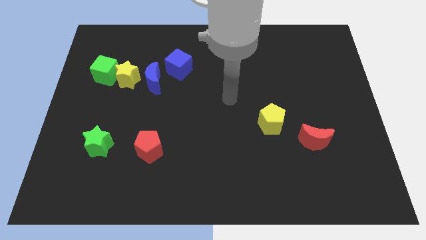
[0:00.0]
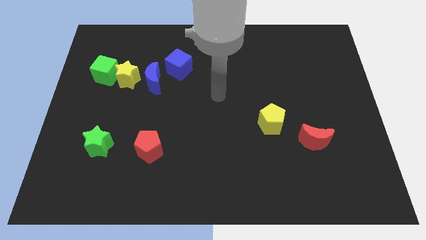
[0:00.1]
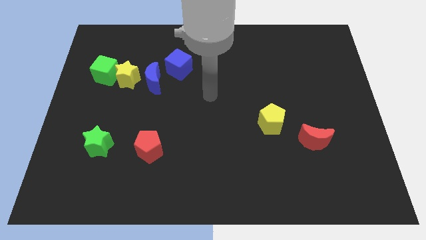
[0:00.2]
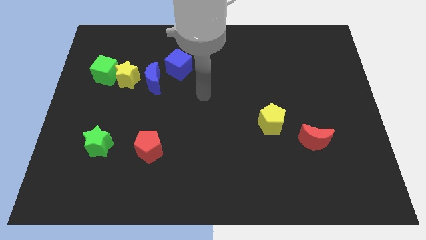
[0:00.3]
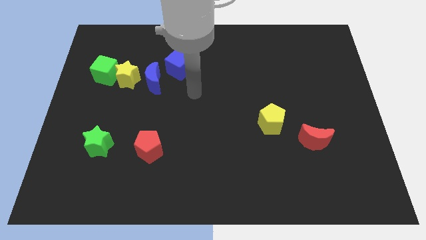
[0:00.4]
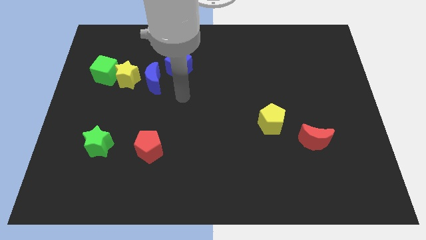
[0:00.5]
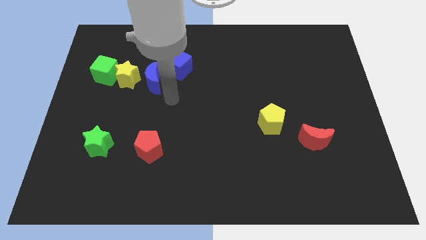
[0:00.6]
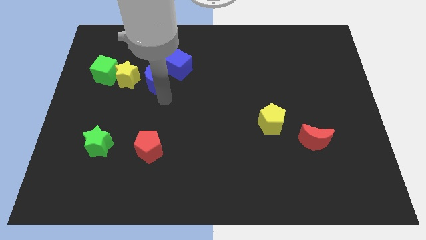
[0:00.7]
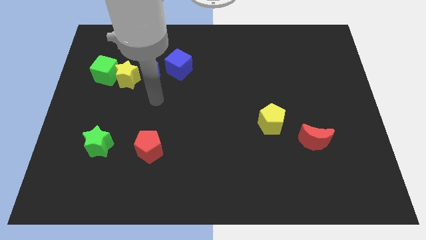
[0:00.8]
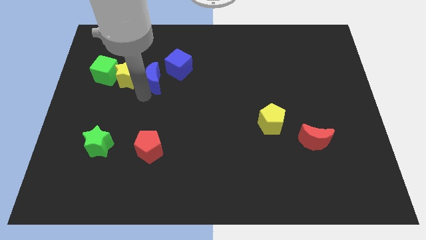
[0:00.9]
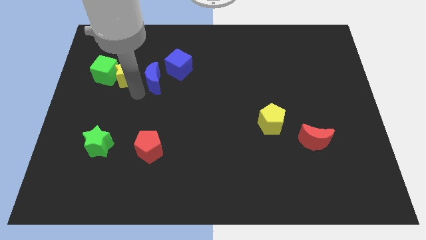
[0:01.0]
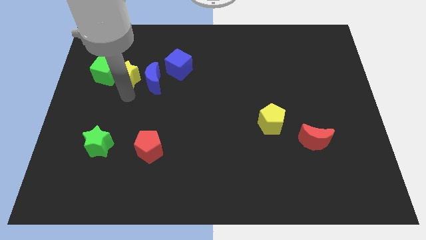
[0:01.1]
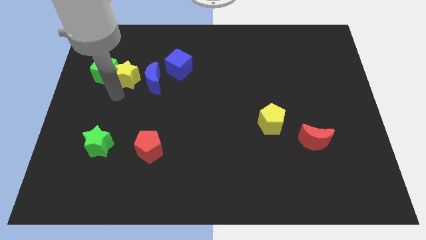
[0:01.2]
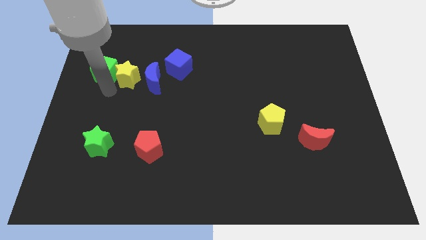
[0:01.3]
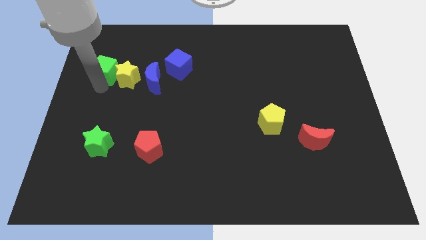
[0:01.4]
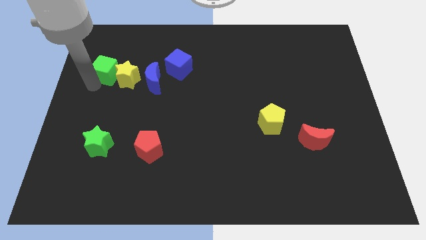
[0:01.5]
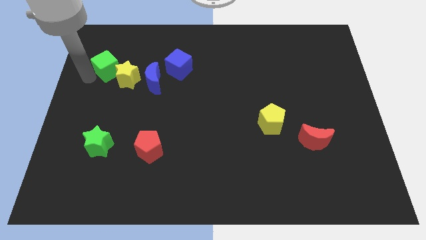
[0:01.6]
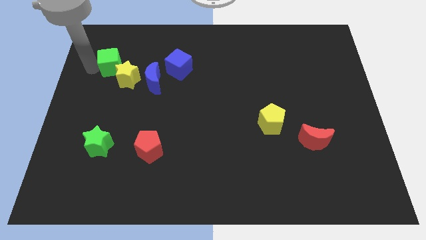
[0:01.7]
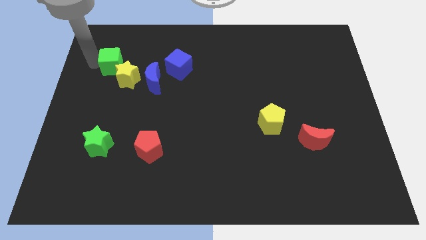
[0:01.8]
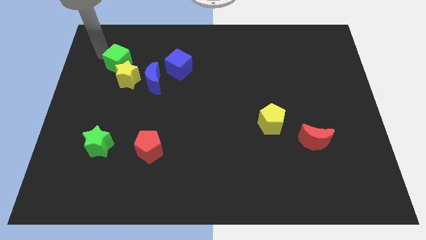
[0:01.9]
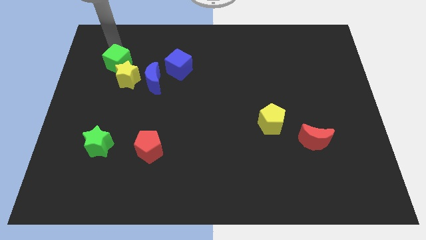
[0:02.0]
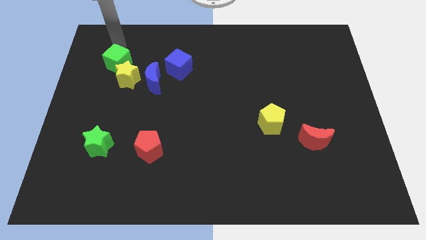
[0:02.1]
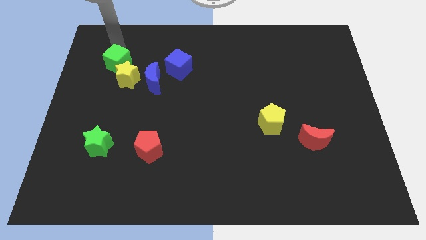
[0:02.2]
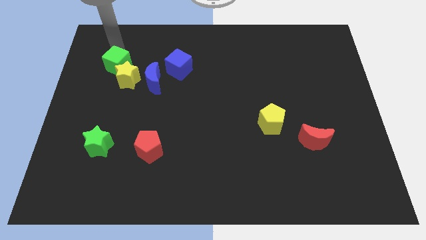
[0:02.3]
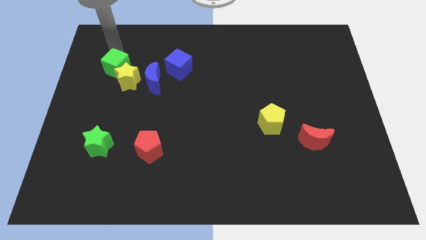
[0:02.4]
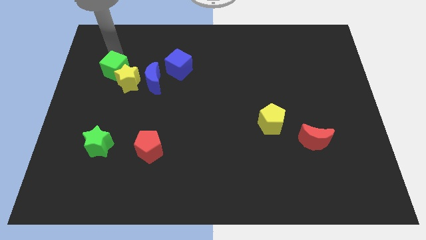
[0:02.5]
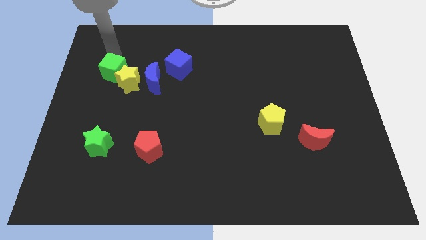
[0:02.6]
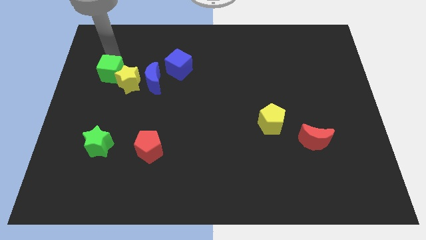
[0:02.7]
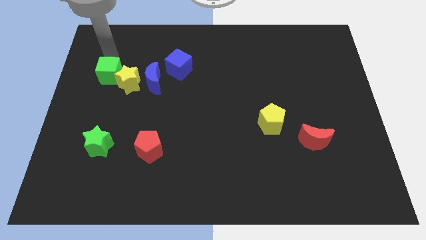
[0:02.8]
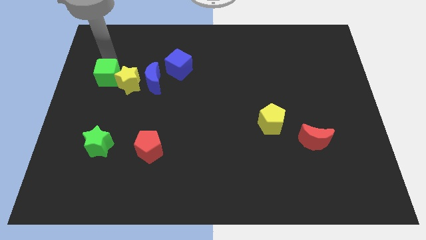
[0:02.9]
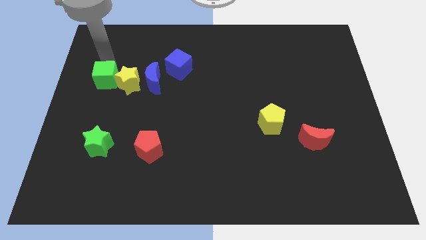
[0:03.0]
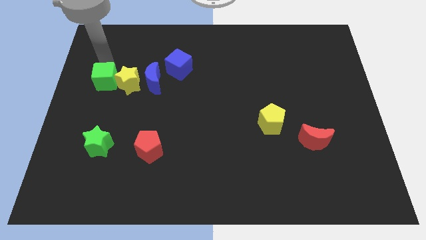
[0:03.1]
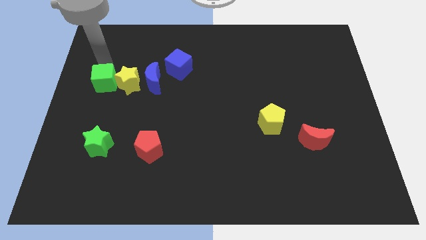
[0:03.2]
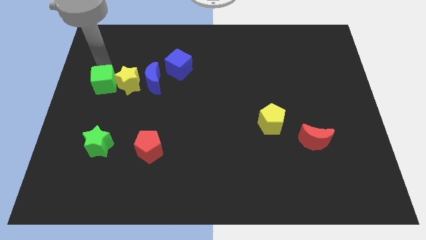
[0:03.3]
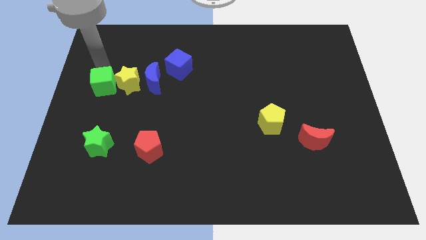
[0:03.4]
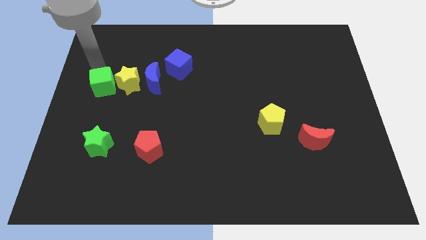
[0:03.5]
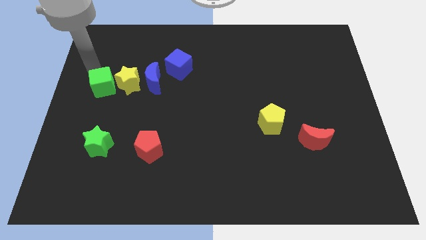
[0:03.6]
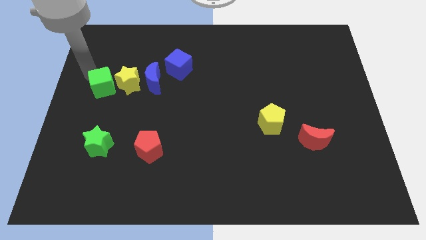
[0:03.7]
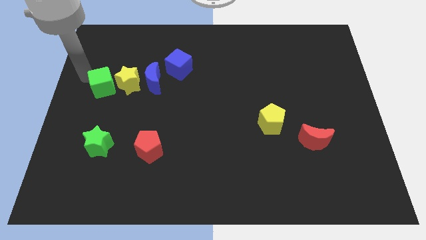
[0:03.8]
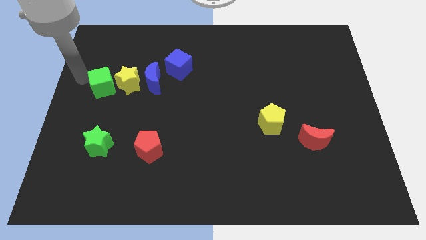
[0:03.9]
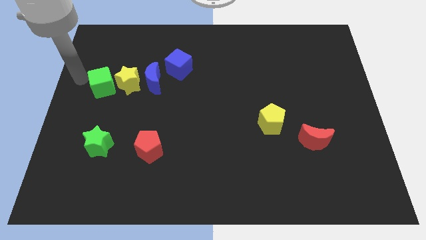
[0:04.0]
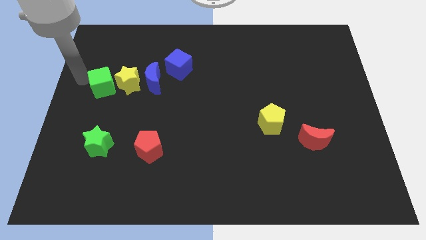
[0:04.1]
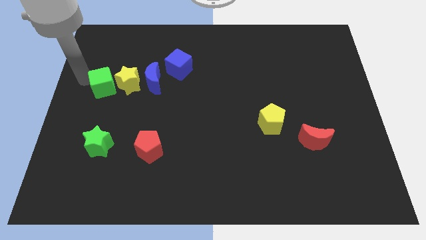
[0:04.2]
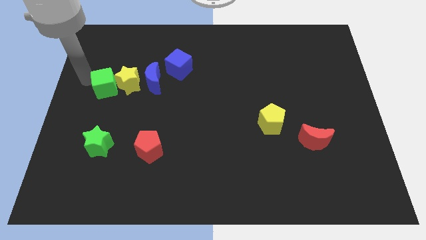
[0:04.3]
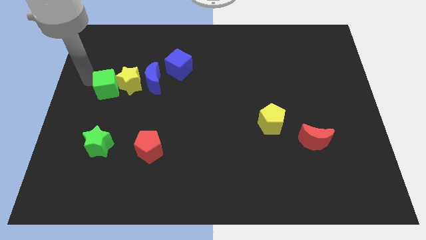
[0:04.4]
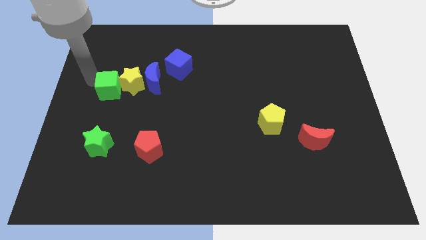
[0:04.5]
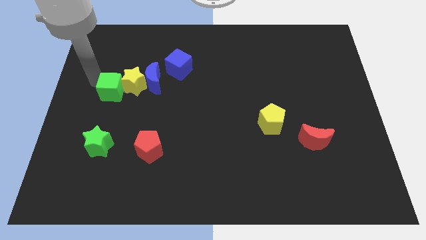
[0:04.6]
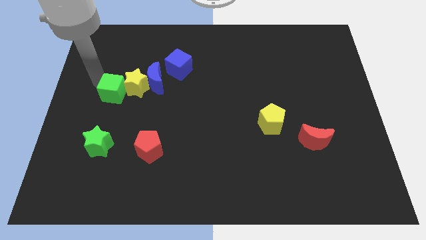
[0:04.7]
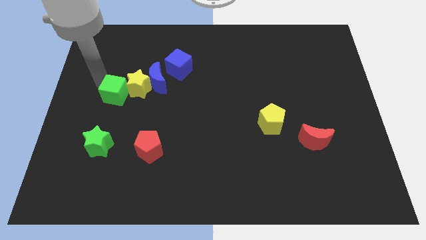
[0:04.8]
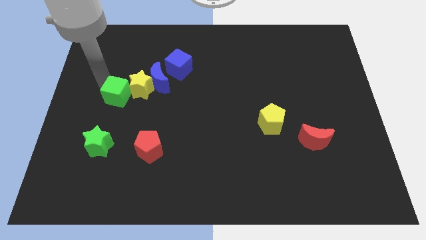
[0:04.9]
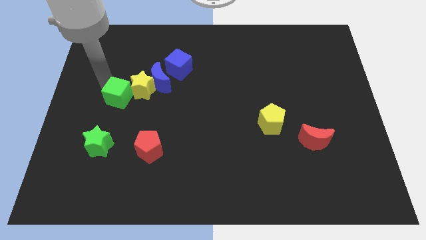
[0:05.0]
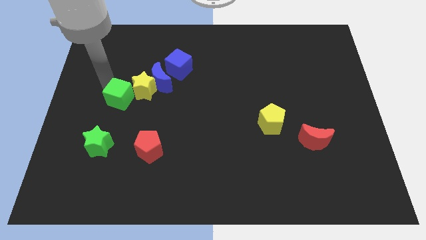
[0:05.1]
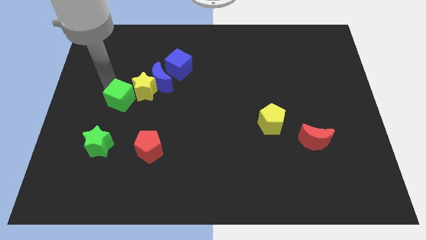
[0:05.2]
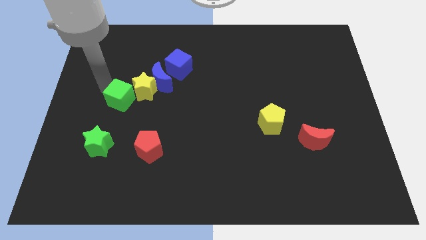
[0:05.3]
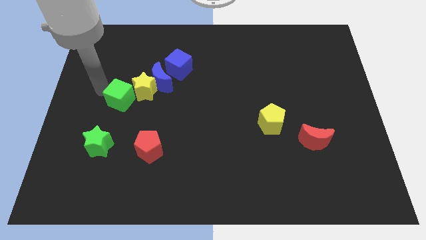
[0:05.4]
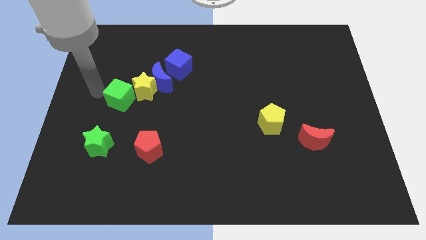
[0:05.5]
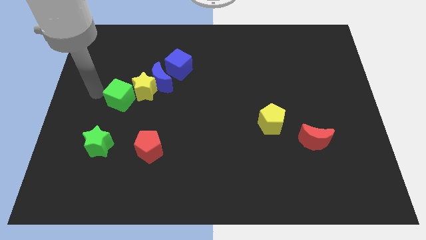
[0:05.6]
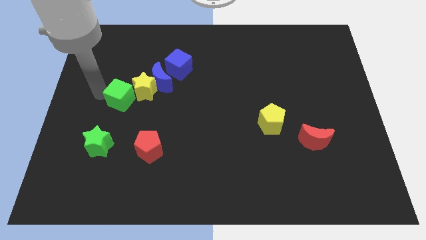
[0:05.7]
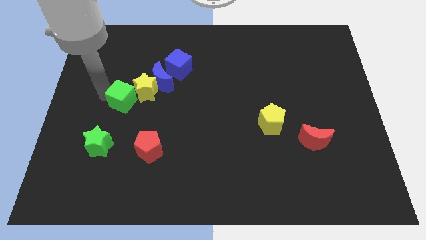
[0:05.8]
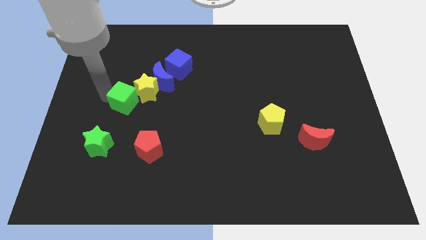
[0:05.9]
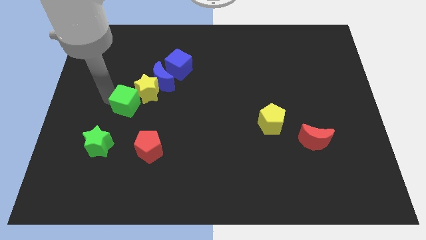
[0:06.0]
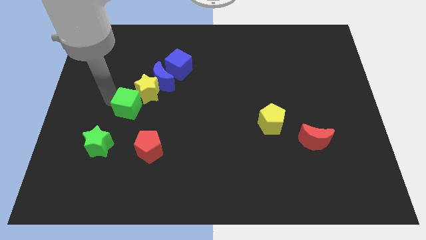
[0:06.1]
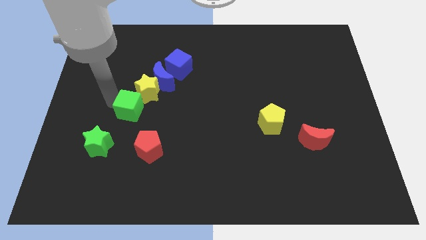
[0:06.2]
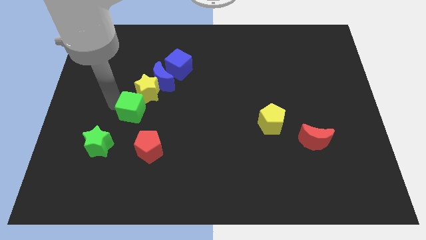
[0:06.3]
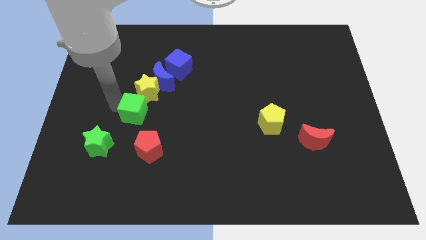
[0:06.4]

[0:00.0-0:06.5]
put the green cube above the red pentagon

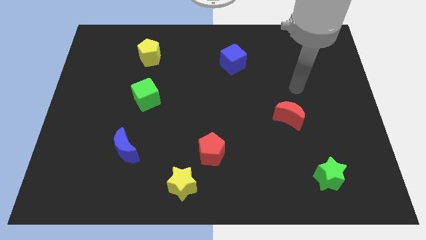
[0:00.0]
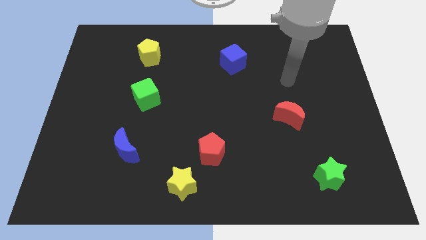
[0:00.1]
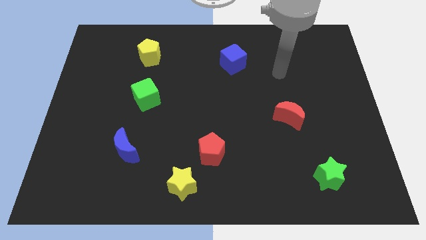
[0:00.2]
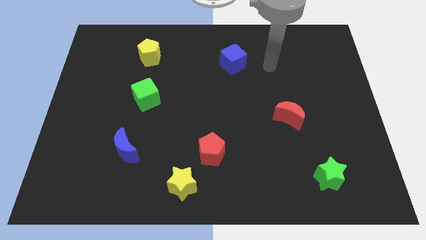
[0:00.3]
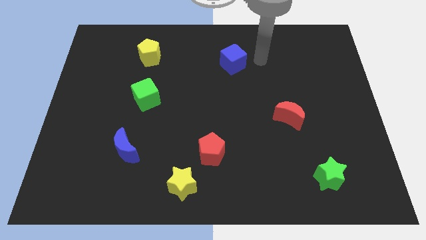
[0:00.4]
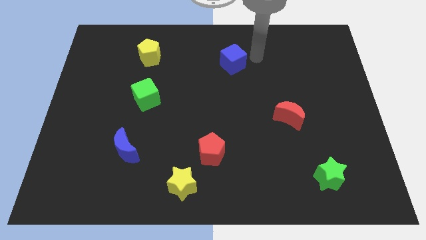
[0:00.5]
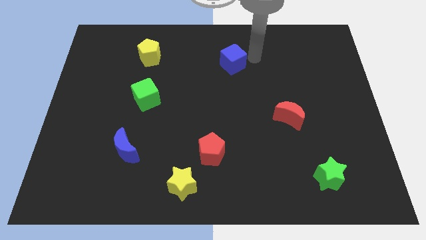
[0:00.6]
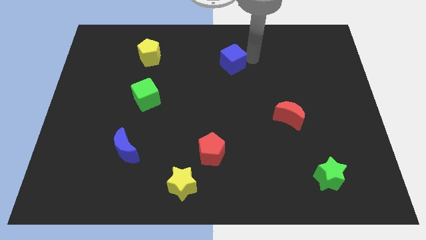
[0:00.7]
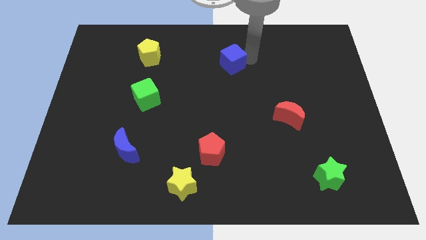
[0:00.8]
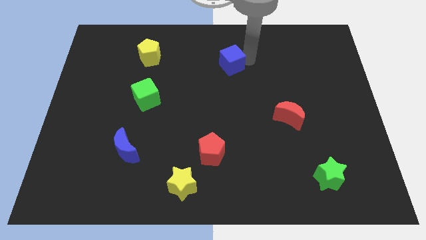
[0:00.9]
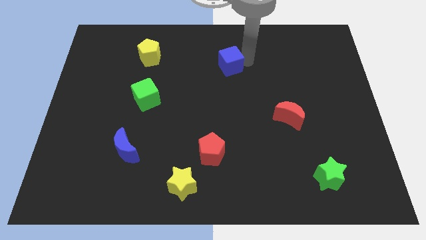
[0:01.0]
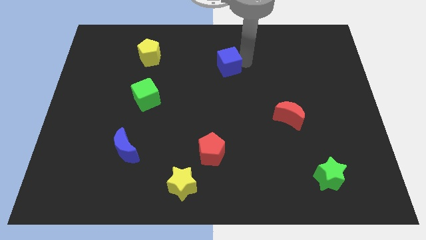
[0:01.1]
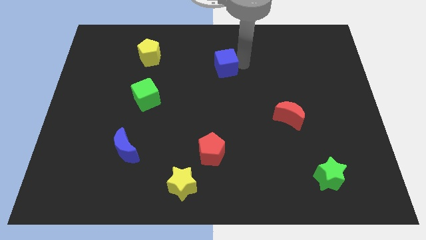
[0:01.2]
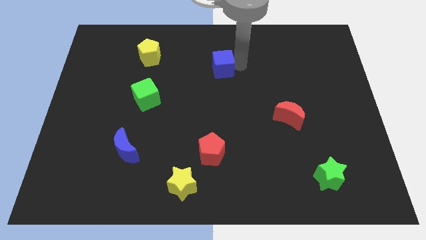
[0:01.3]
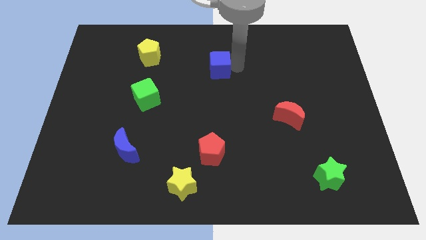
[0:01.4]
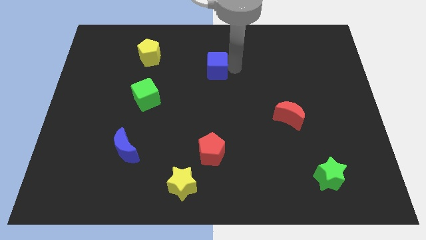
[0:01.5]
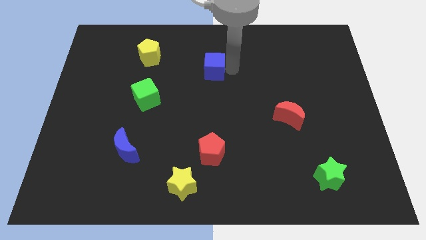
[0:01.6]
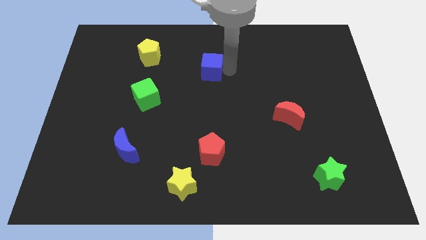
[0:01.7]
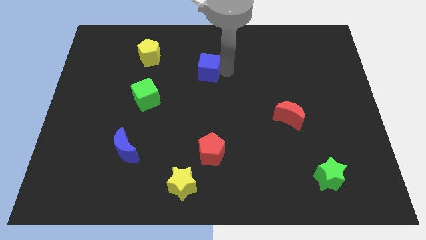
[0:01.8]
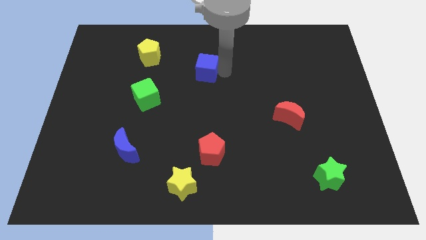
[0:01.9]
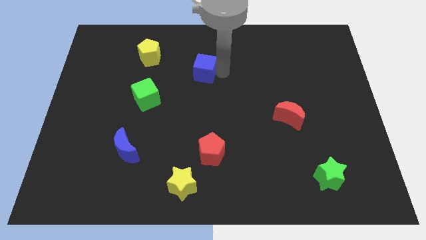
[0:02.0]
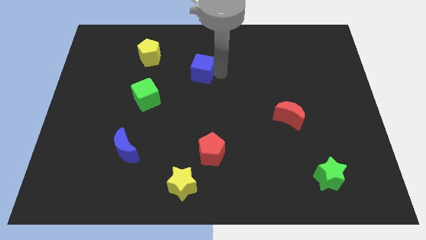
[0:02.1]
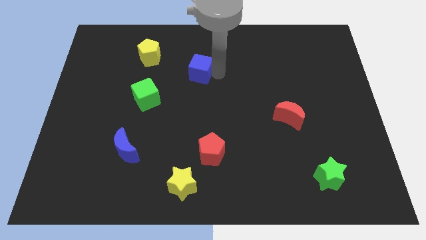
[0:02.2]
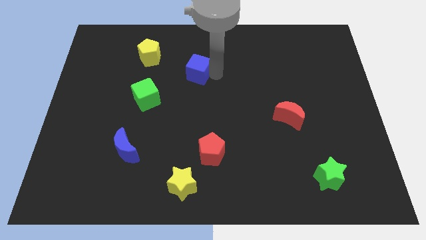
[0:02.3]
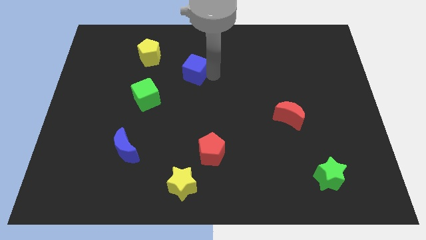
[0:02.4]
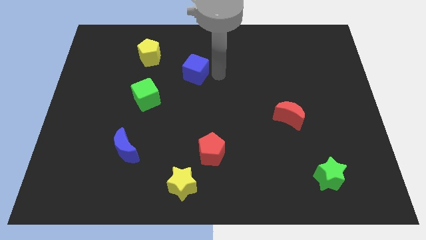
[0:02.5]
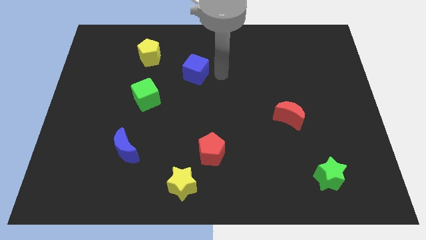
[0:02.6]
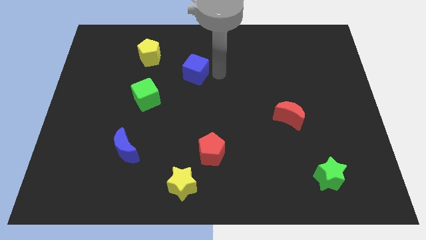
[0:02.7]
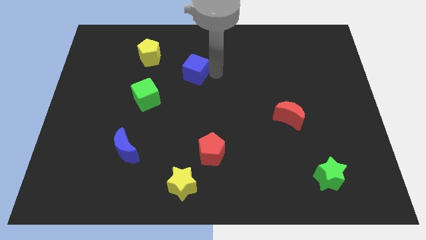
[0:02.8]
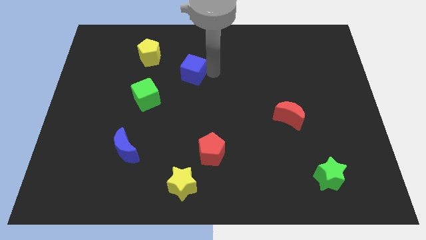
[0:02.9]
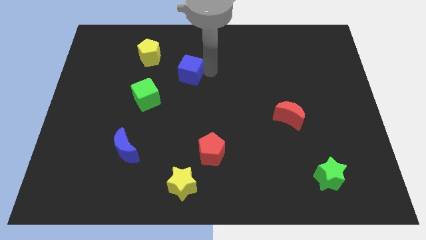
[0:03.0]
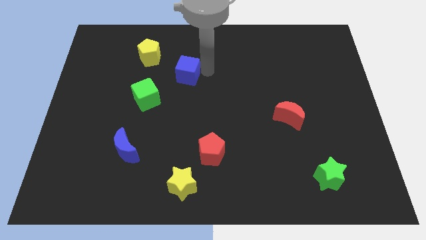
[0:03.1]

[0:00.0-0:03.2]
push the blue cube to the bottom right side of the yellow pentagon
